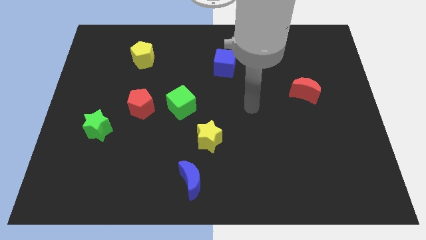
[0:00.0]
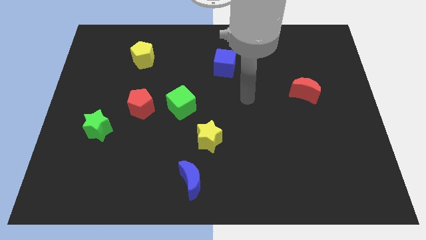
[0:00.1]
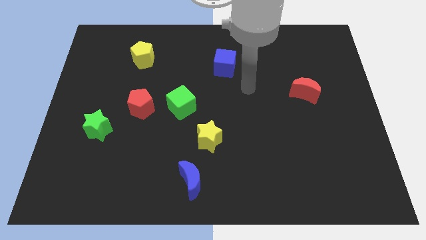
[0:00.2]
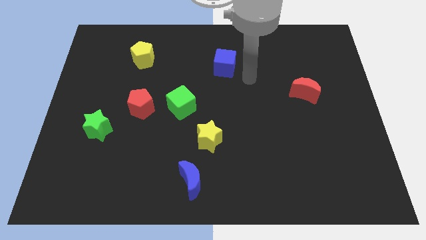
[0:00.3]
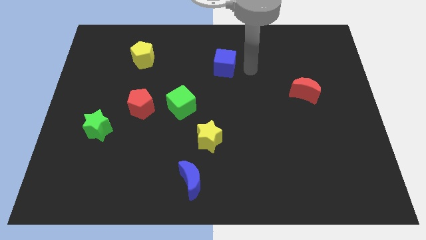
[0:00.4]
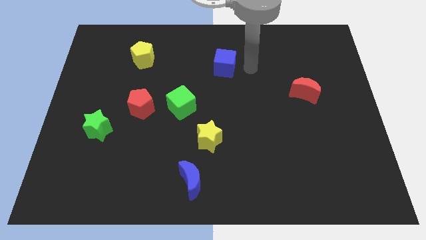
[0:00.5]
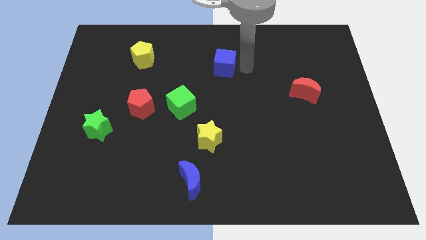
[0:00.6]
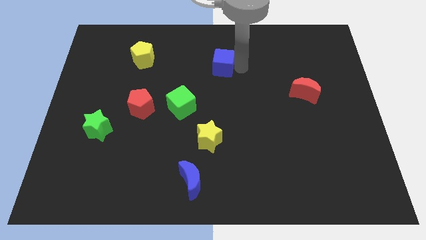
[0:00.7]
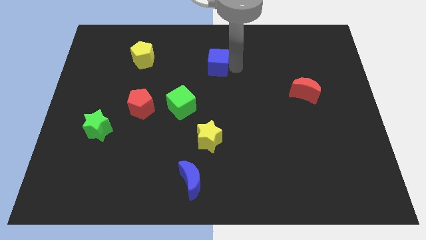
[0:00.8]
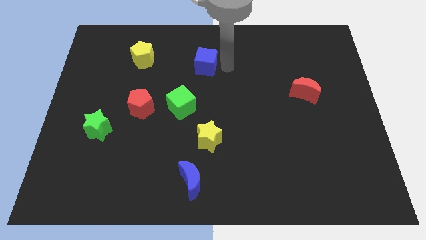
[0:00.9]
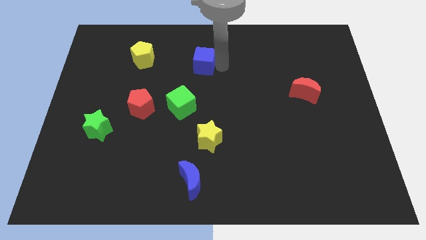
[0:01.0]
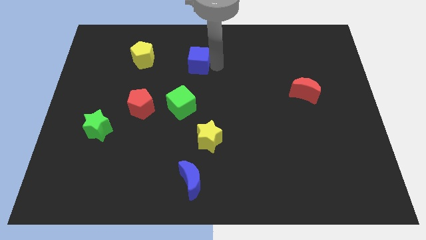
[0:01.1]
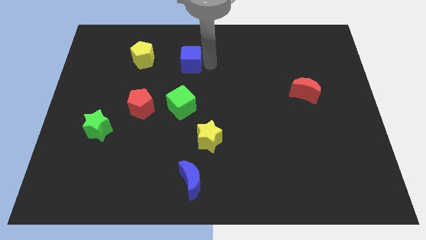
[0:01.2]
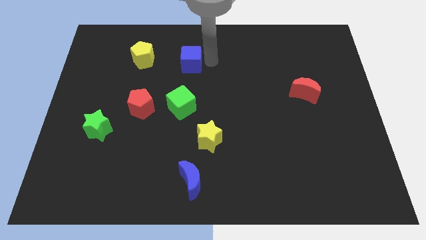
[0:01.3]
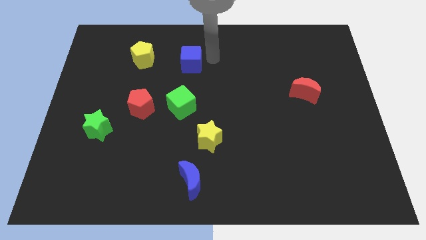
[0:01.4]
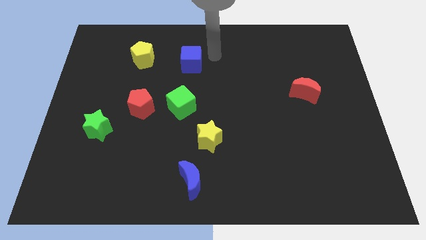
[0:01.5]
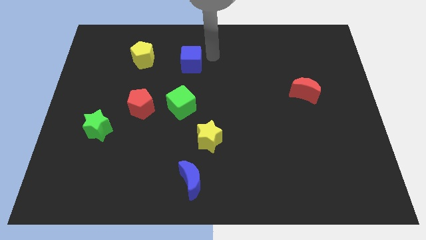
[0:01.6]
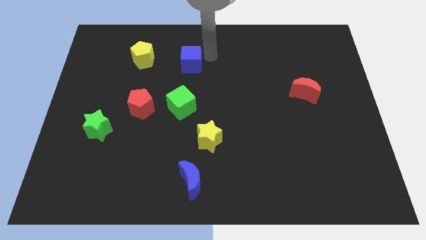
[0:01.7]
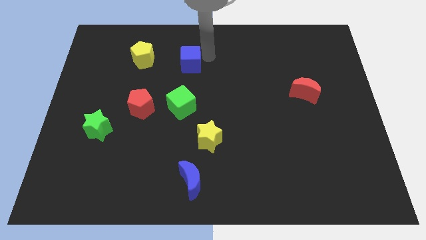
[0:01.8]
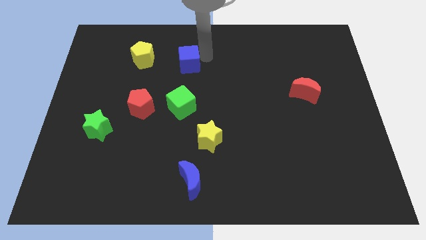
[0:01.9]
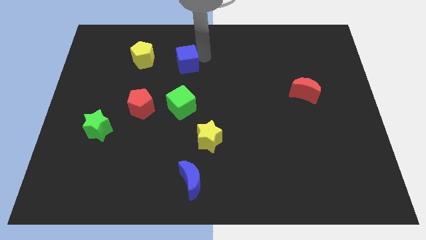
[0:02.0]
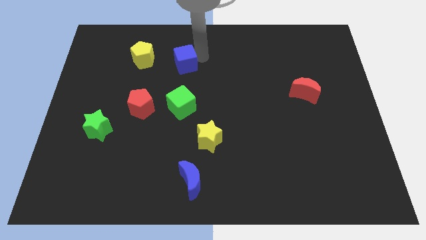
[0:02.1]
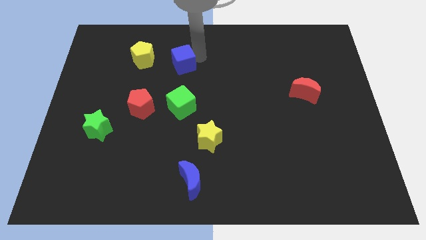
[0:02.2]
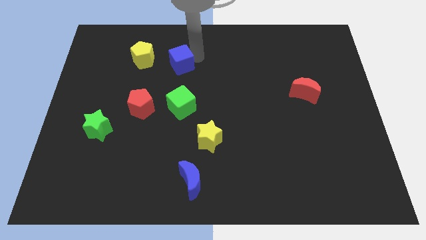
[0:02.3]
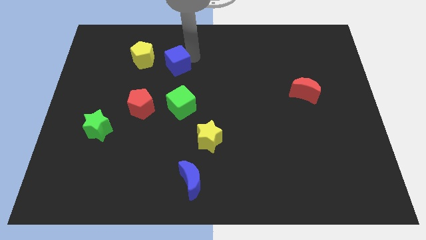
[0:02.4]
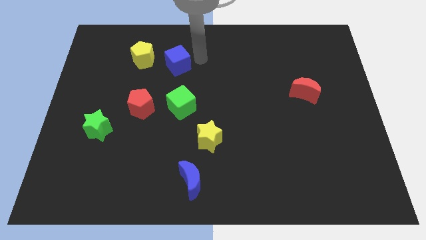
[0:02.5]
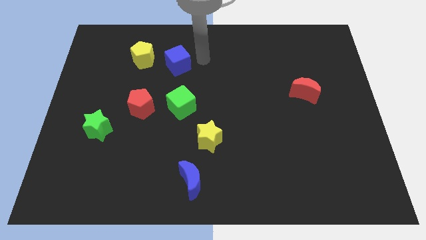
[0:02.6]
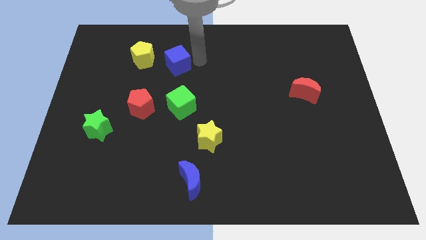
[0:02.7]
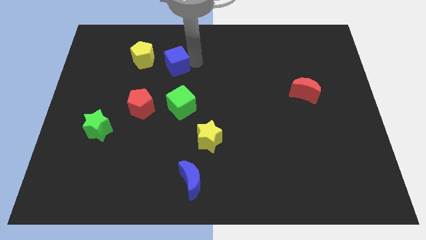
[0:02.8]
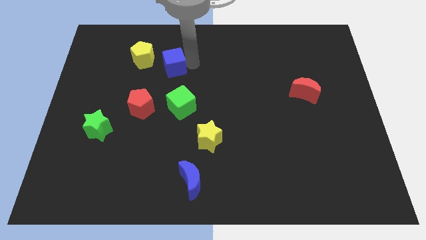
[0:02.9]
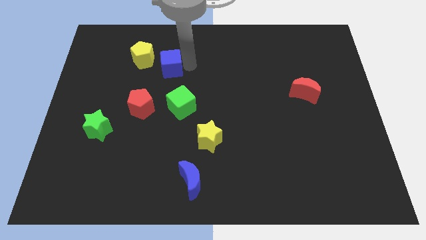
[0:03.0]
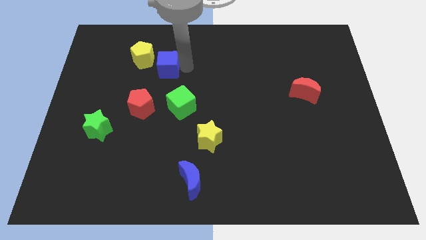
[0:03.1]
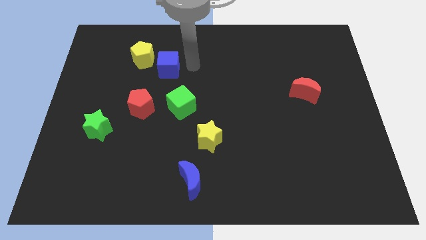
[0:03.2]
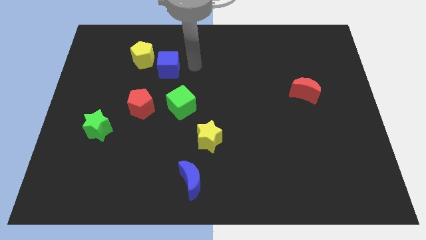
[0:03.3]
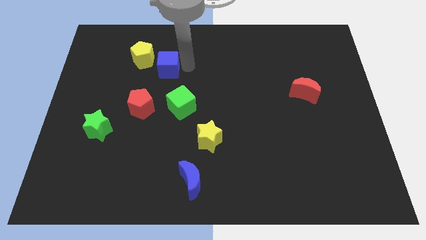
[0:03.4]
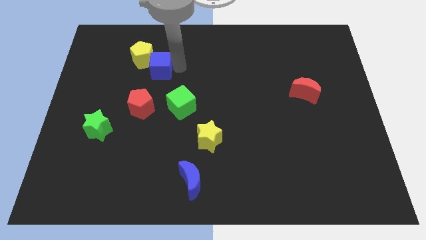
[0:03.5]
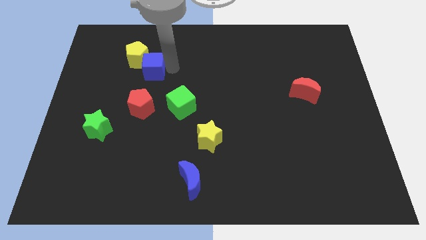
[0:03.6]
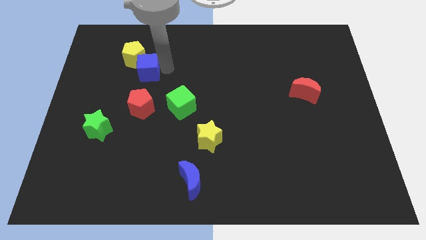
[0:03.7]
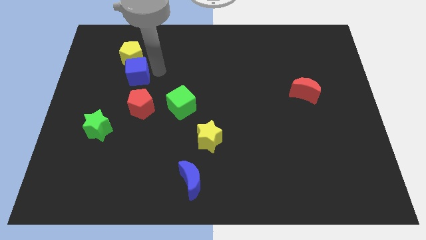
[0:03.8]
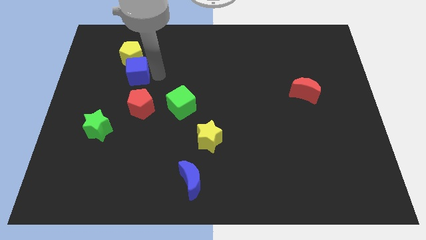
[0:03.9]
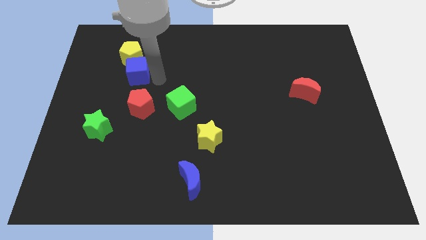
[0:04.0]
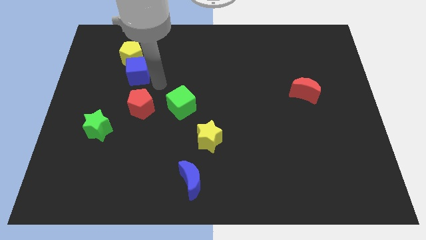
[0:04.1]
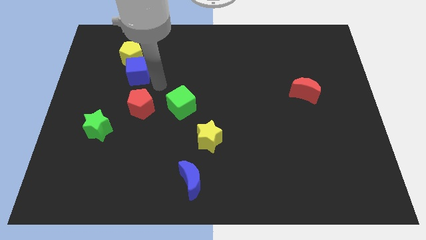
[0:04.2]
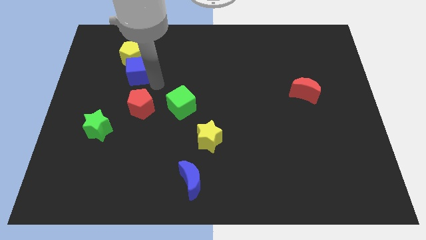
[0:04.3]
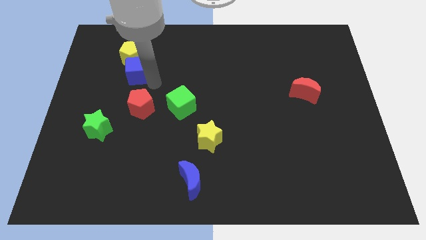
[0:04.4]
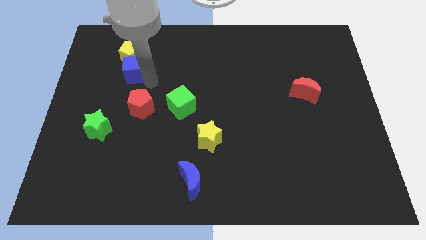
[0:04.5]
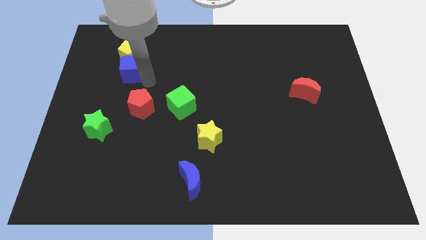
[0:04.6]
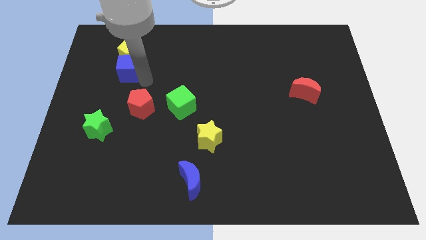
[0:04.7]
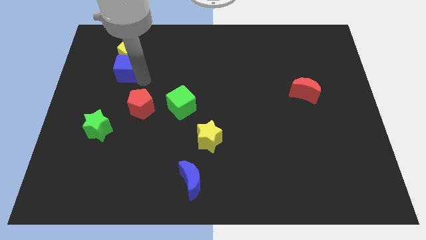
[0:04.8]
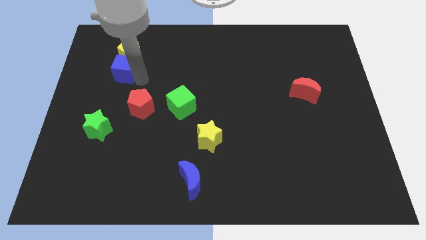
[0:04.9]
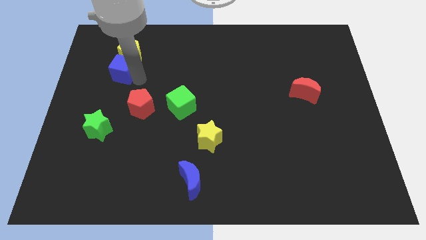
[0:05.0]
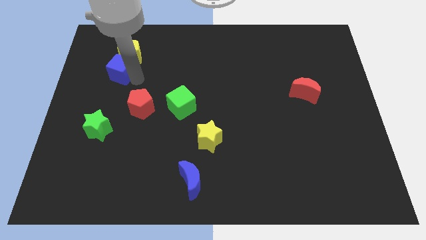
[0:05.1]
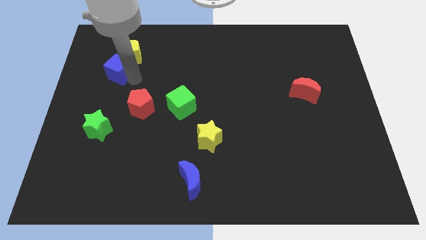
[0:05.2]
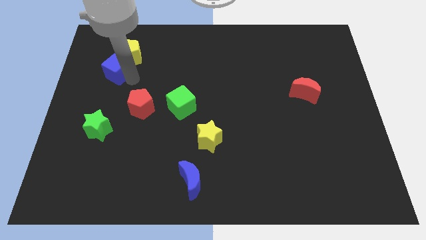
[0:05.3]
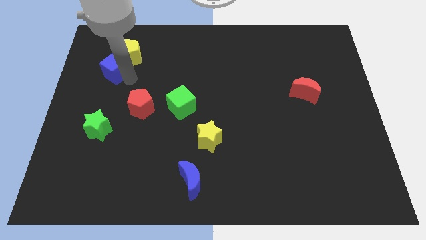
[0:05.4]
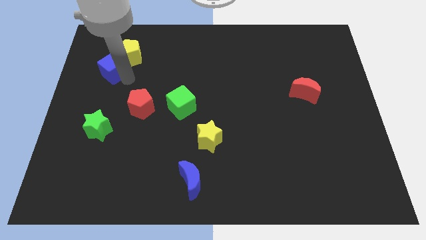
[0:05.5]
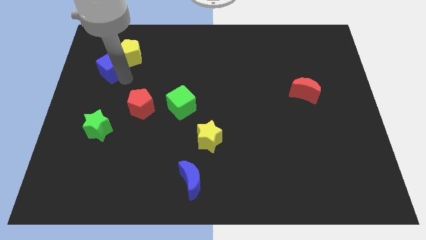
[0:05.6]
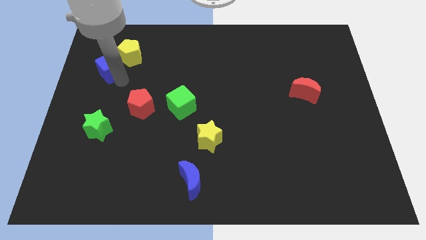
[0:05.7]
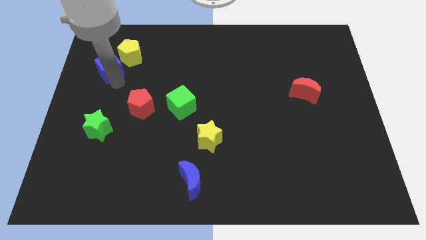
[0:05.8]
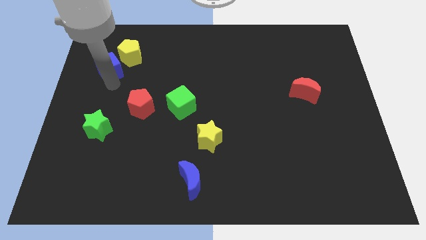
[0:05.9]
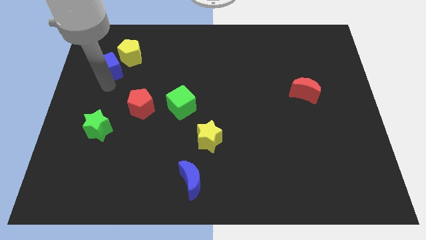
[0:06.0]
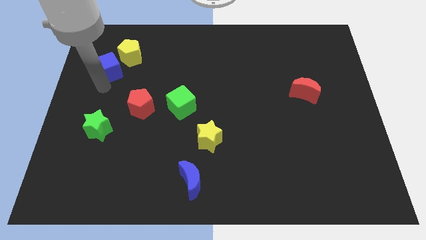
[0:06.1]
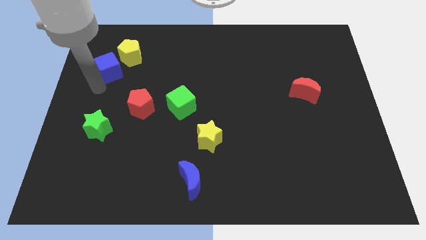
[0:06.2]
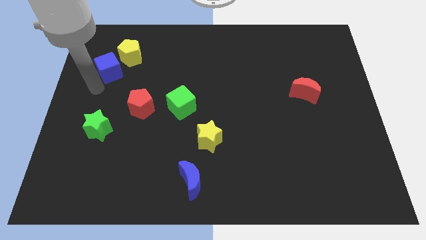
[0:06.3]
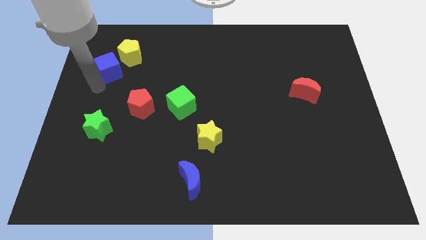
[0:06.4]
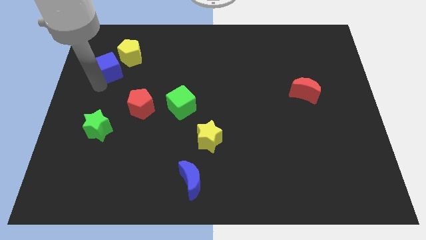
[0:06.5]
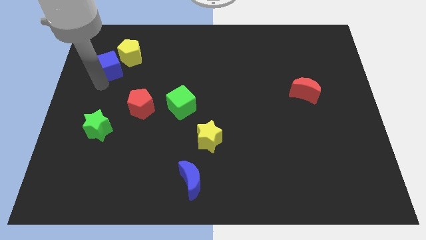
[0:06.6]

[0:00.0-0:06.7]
move the blue cube just left of the yellow pentagon
